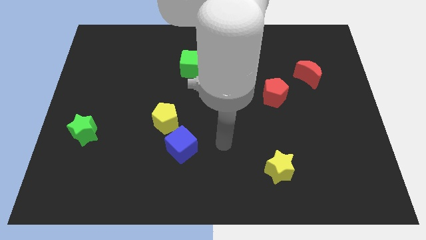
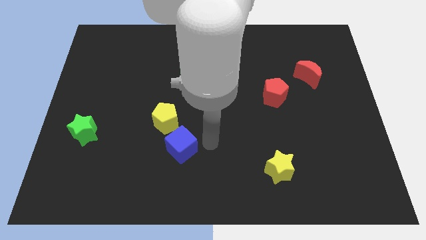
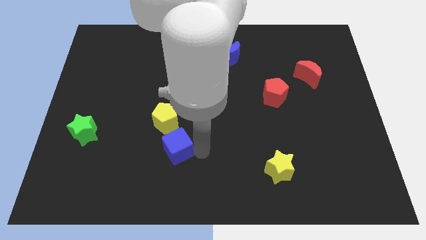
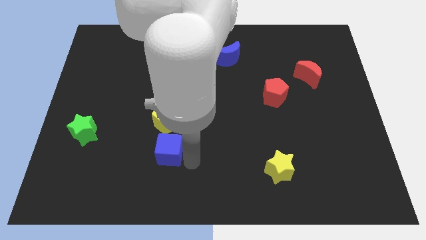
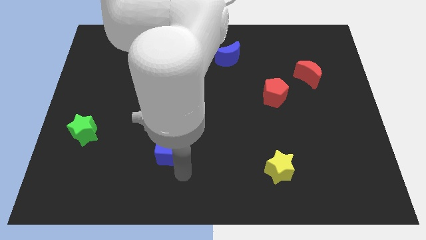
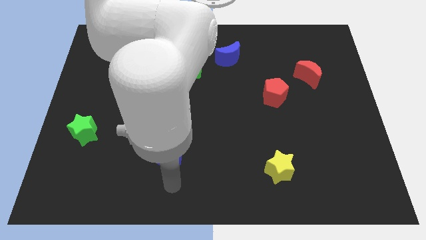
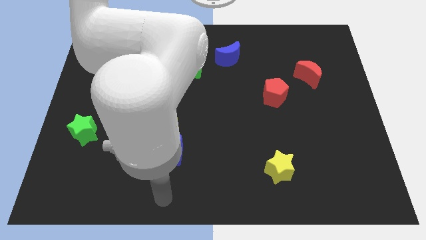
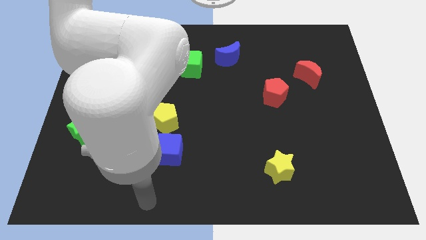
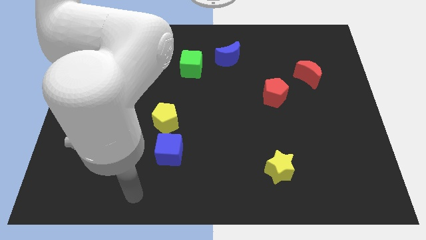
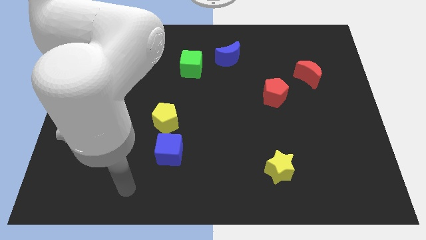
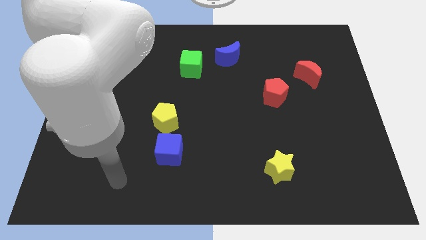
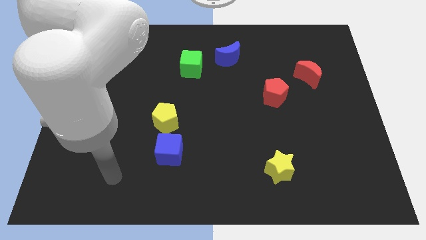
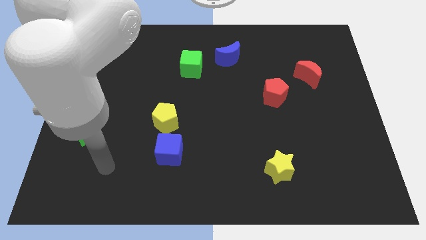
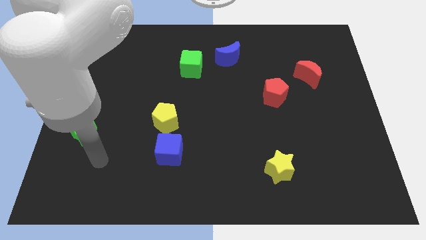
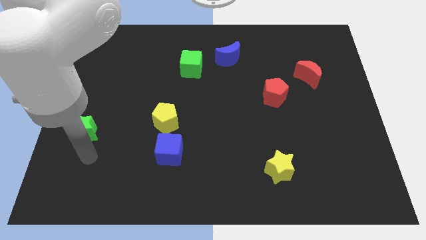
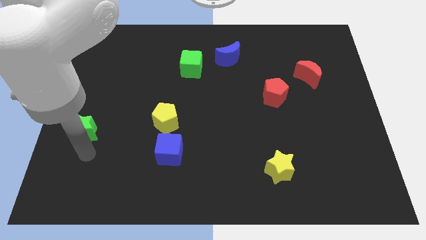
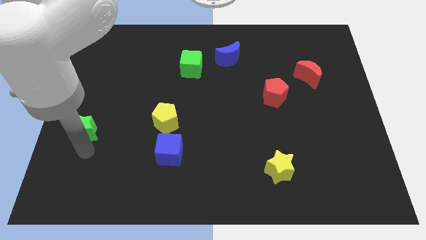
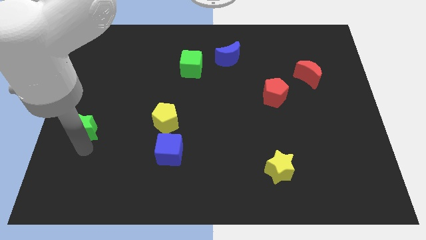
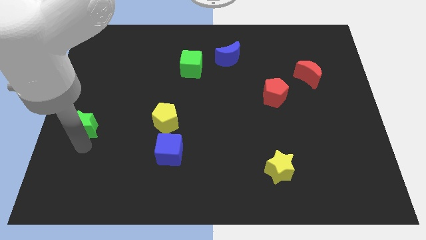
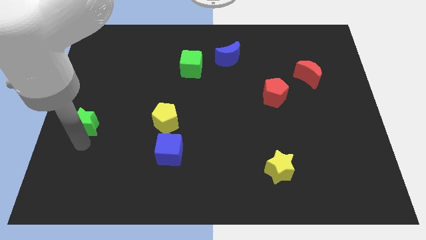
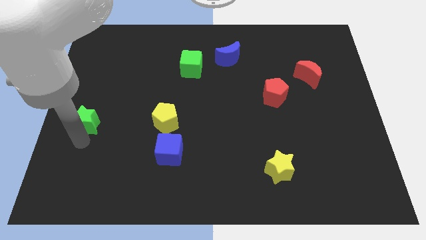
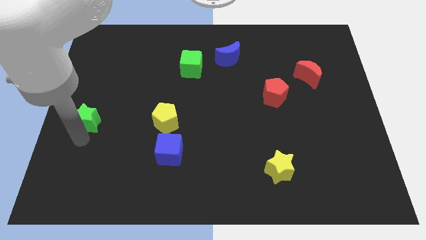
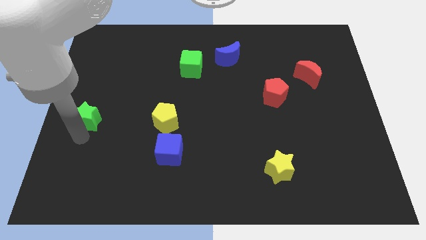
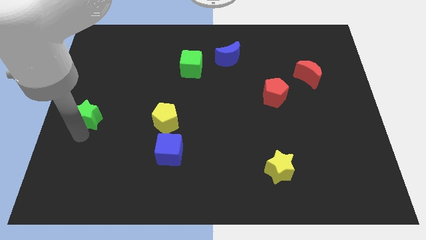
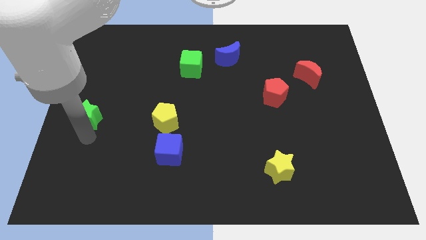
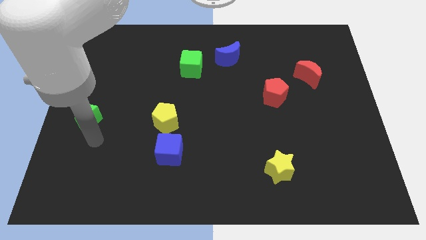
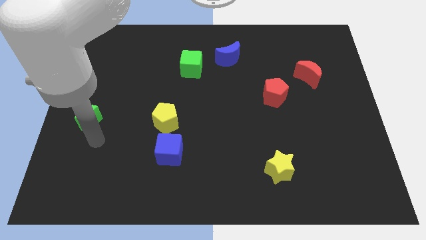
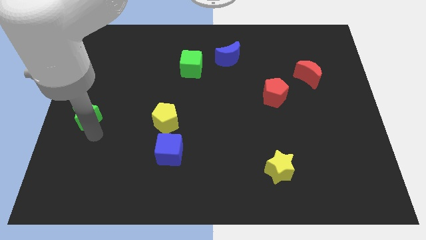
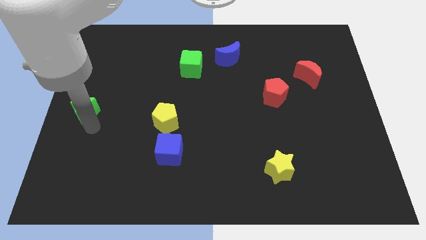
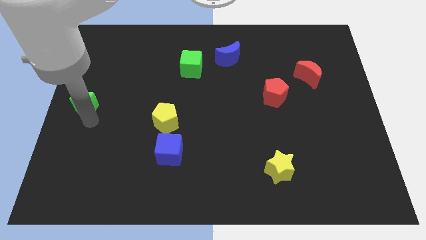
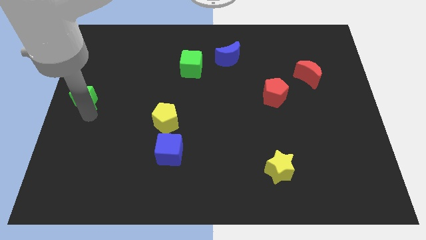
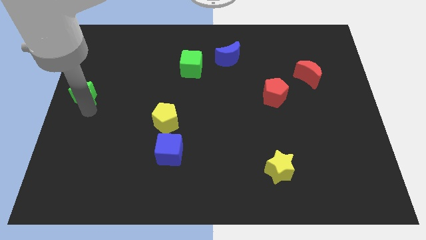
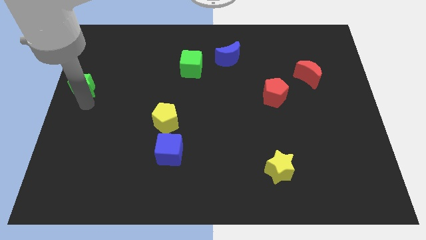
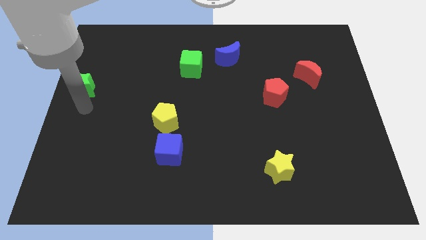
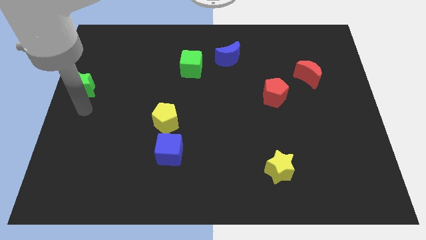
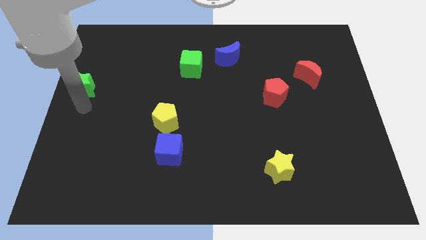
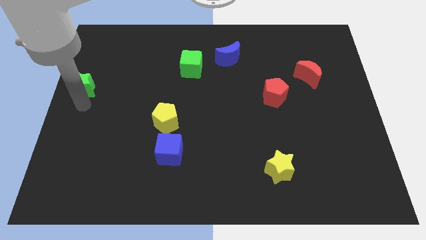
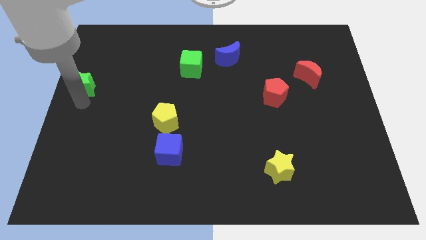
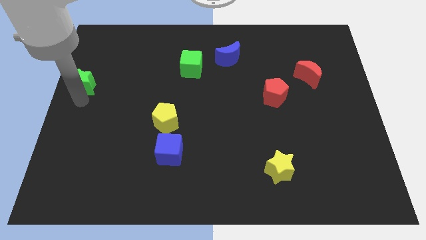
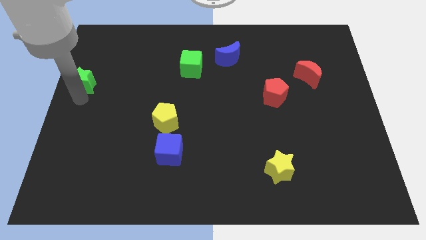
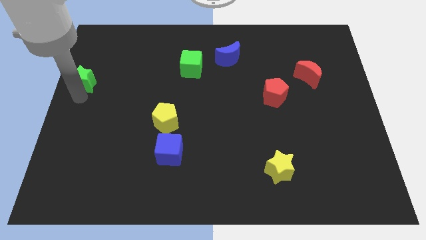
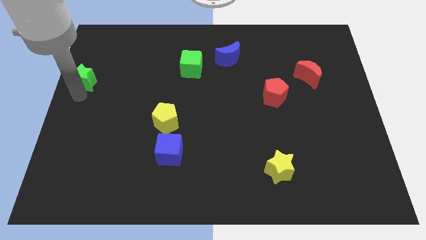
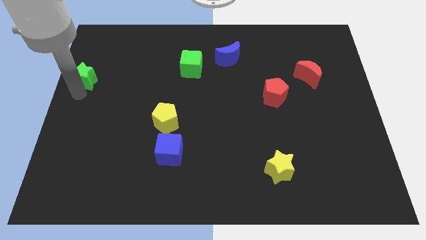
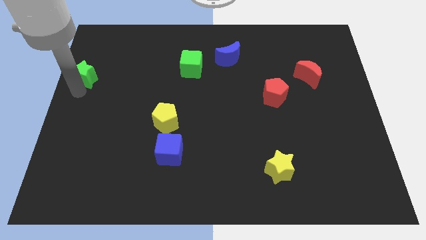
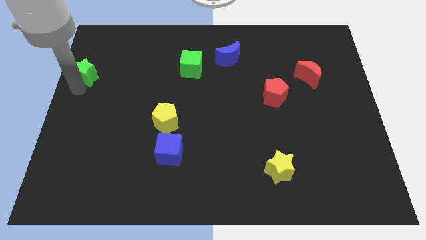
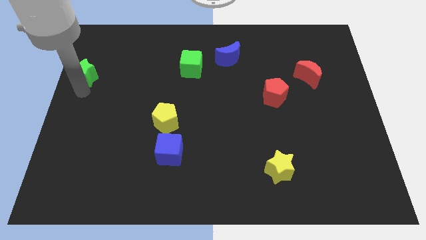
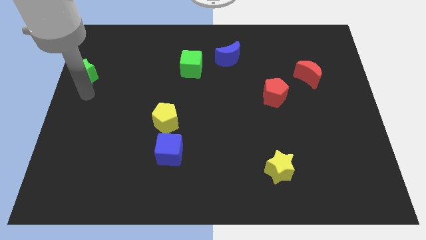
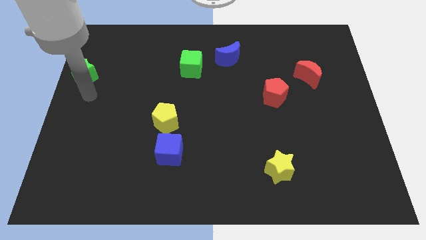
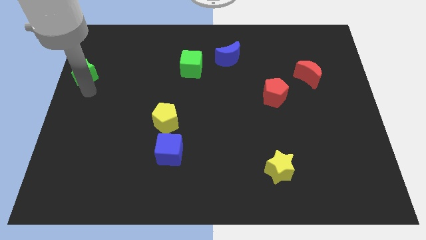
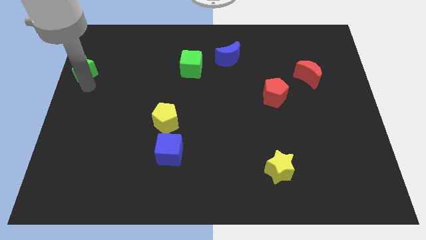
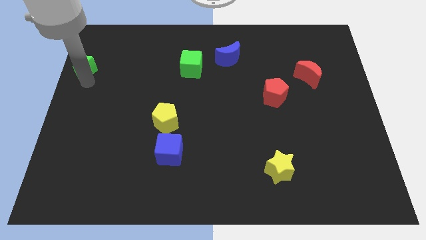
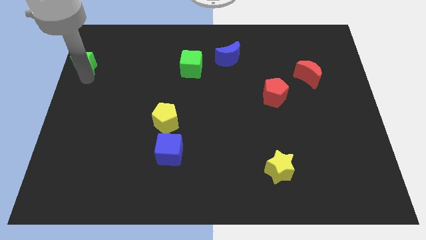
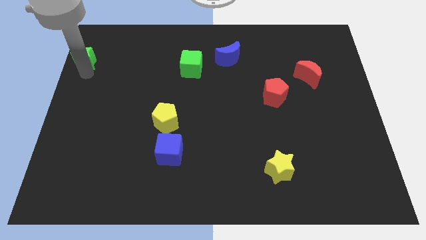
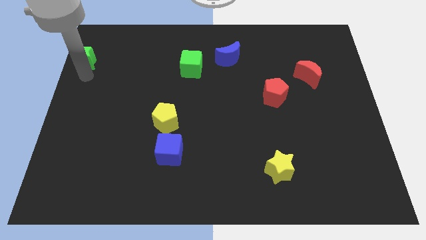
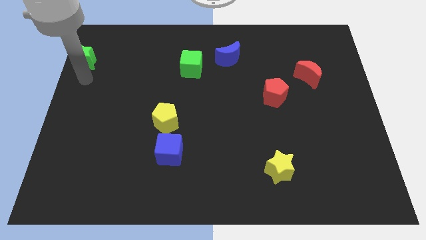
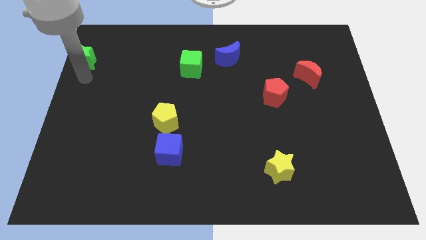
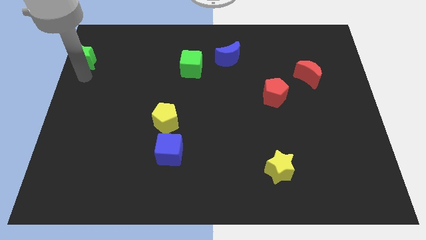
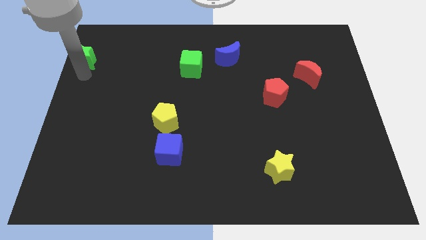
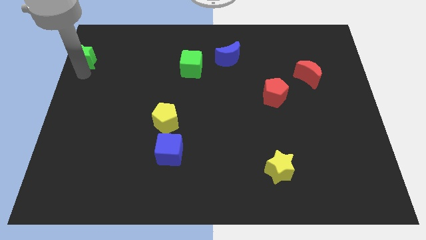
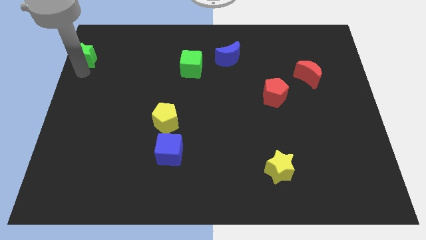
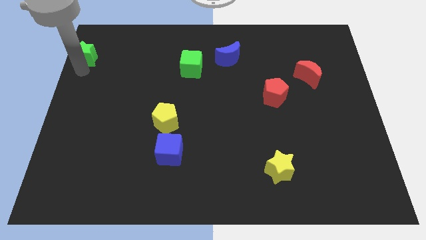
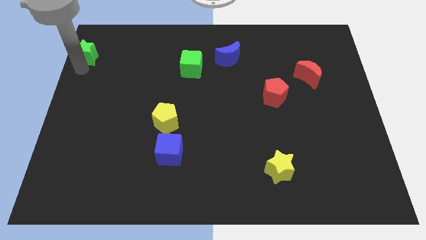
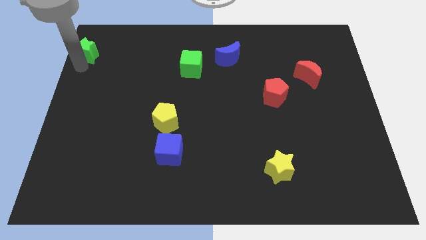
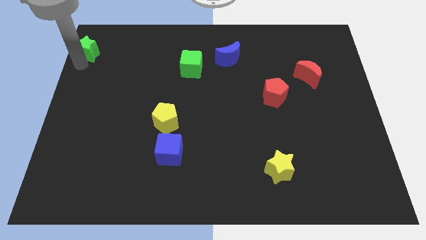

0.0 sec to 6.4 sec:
slide the green star to the top left of the board

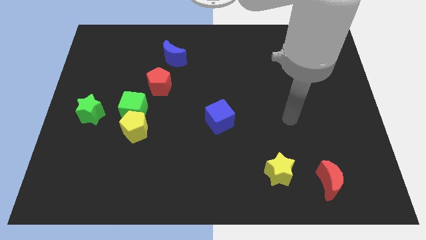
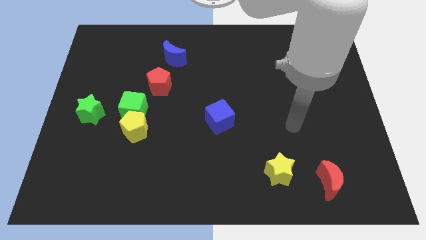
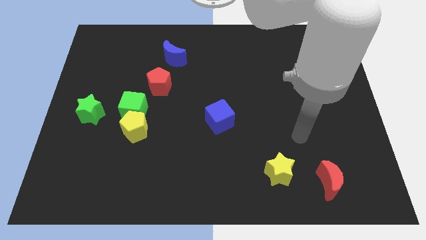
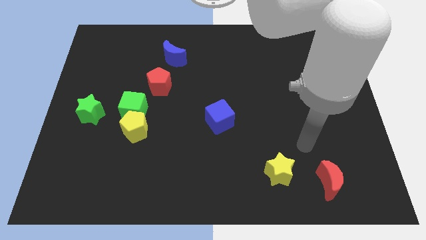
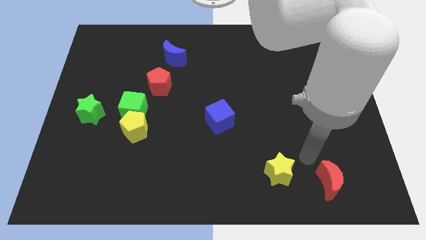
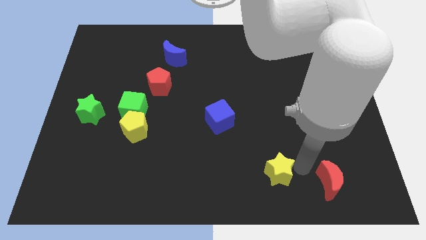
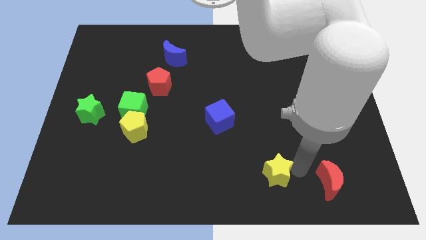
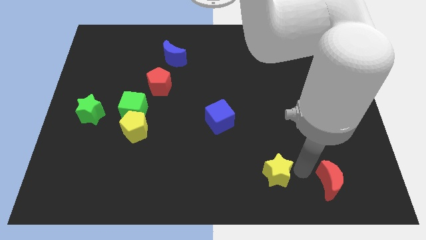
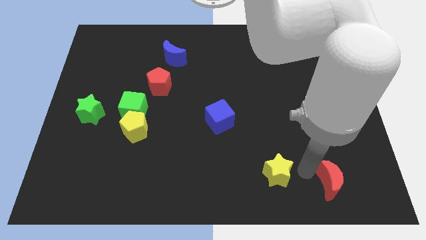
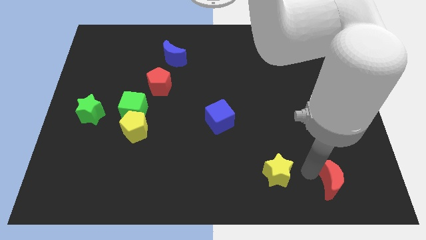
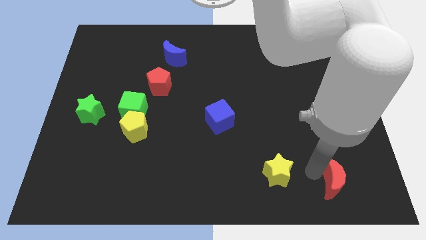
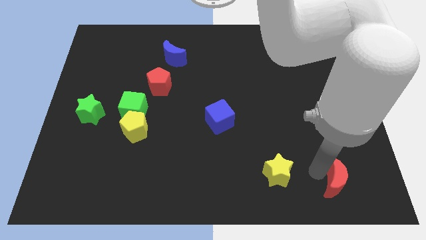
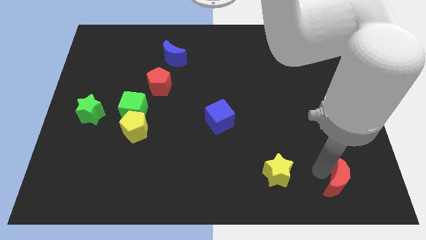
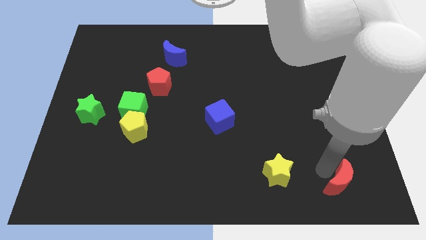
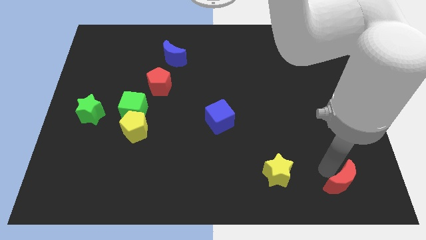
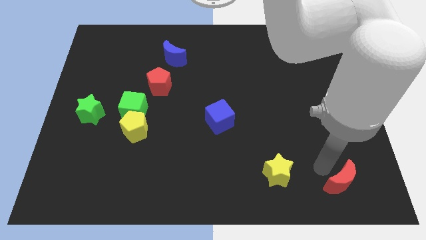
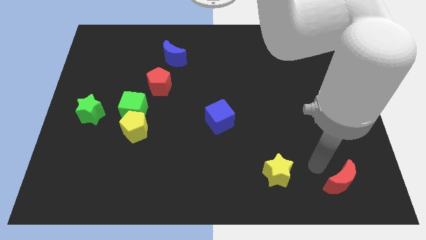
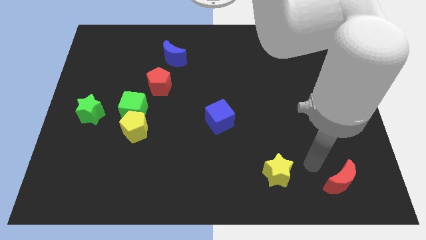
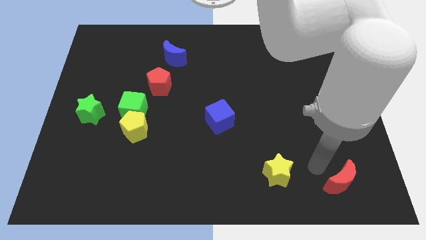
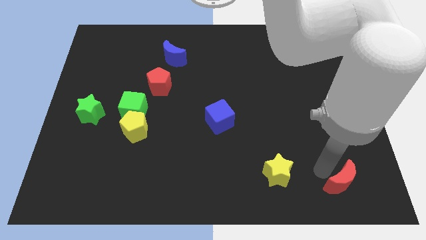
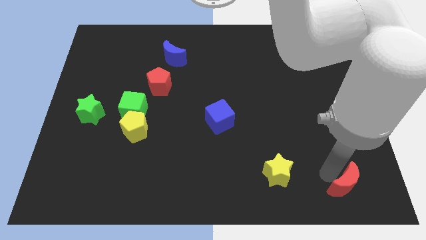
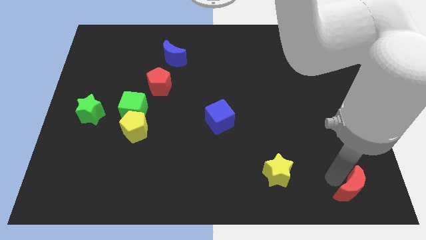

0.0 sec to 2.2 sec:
push the red moon to the bottom right corner
